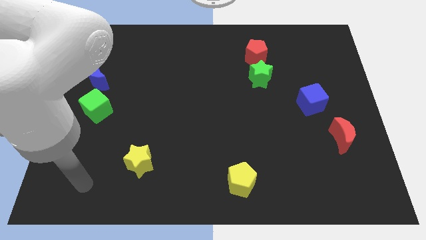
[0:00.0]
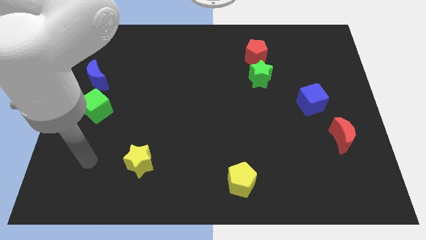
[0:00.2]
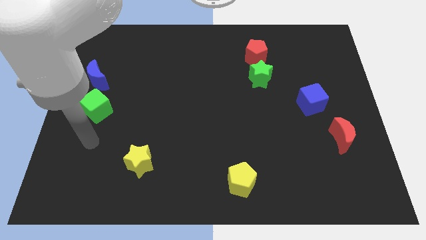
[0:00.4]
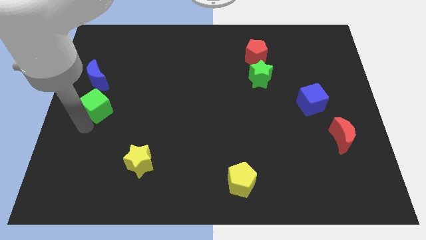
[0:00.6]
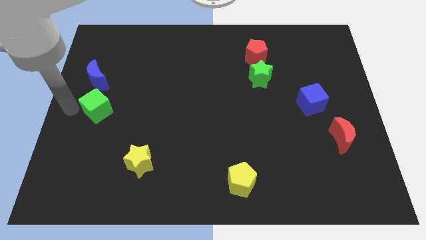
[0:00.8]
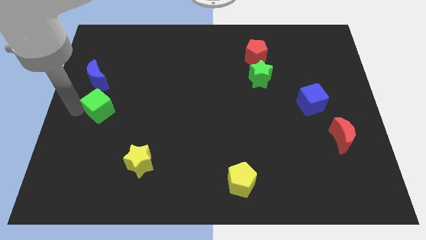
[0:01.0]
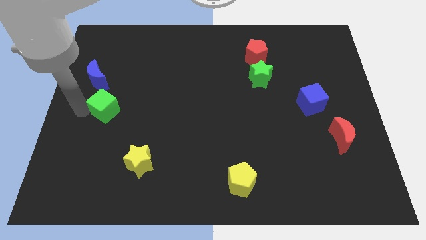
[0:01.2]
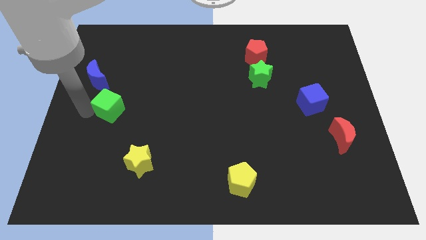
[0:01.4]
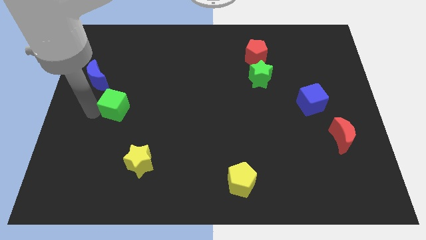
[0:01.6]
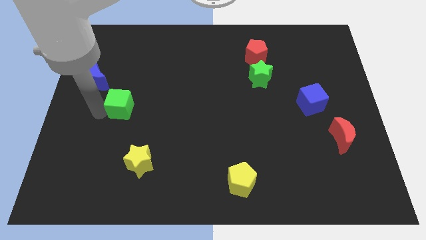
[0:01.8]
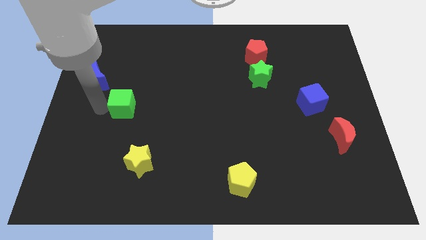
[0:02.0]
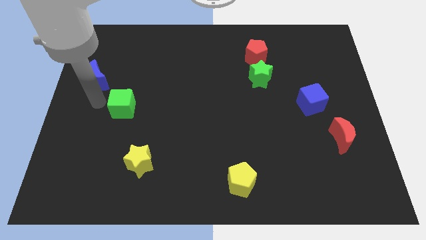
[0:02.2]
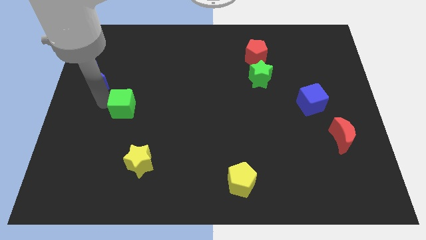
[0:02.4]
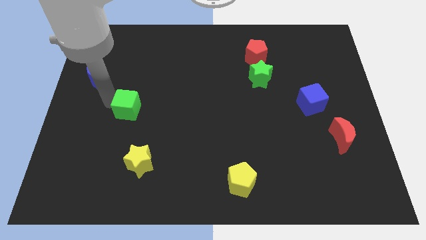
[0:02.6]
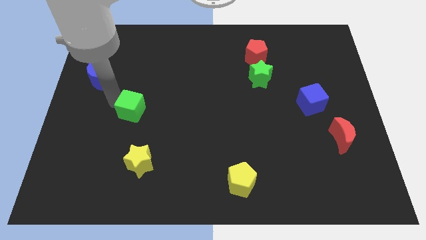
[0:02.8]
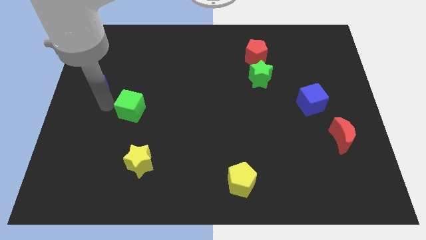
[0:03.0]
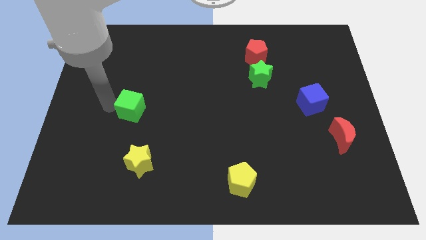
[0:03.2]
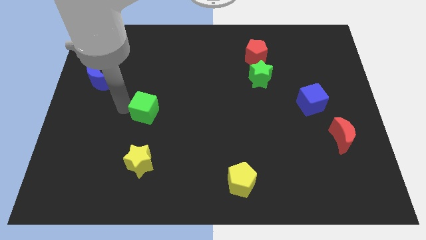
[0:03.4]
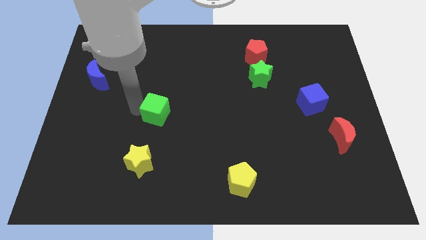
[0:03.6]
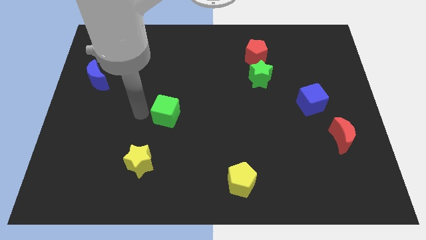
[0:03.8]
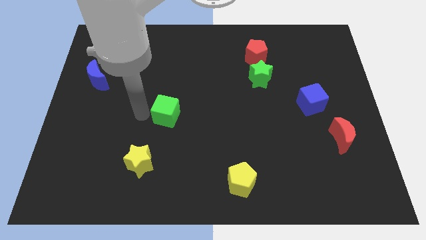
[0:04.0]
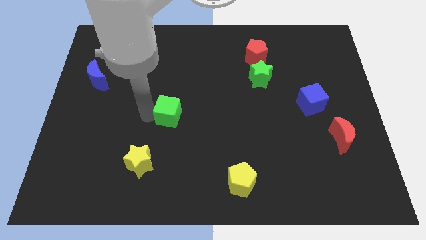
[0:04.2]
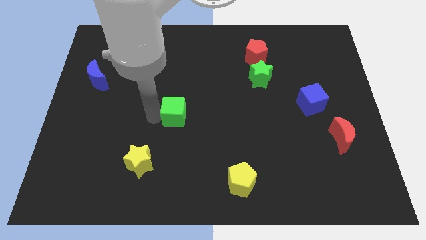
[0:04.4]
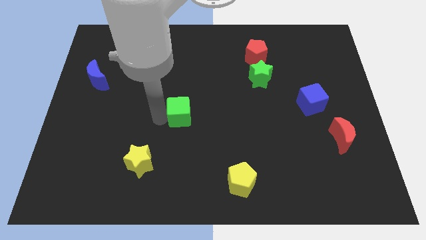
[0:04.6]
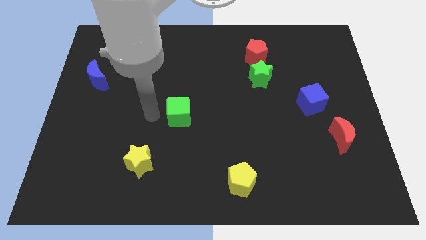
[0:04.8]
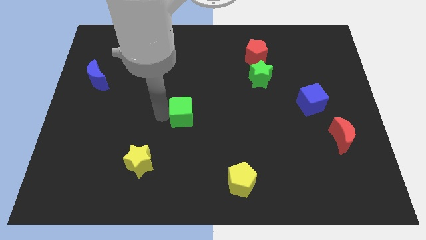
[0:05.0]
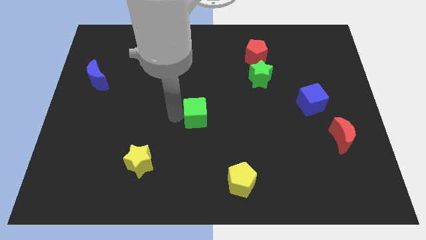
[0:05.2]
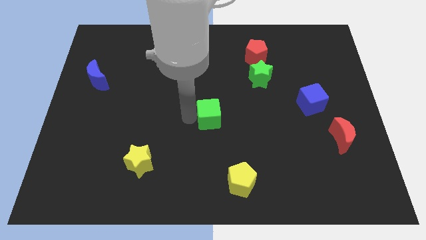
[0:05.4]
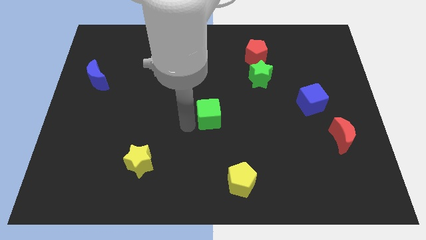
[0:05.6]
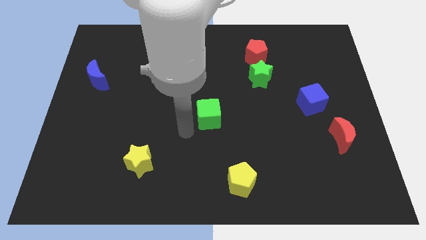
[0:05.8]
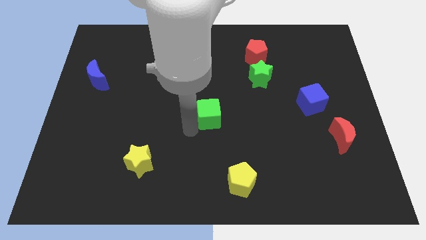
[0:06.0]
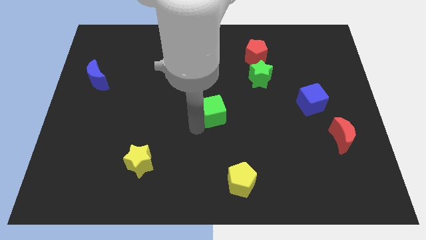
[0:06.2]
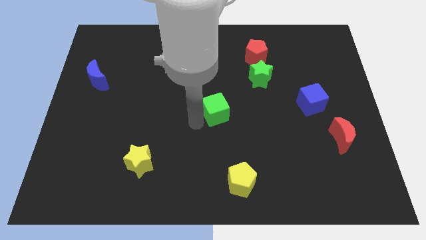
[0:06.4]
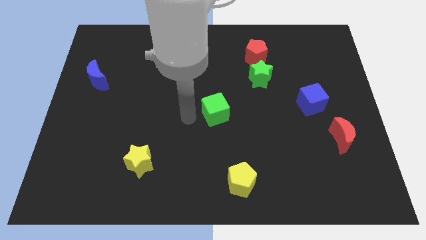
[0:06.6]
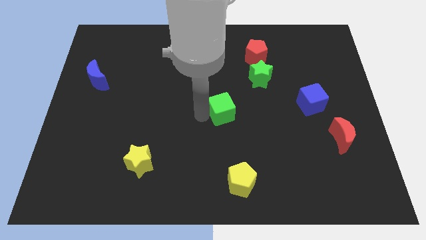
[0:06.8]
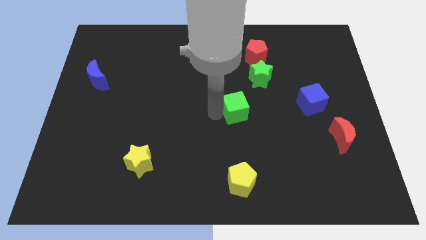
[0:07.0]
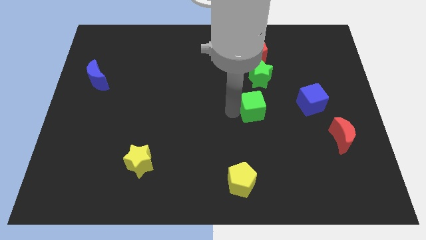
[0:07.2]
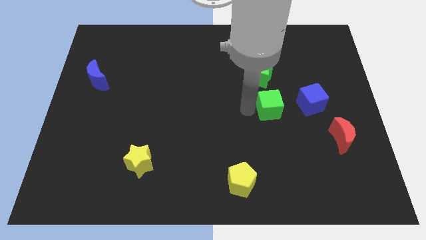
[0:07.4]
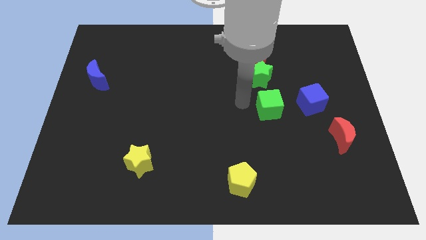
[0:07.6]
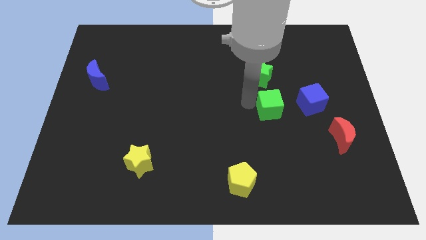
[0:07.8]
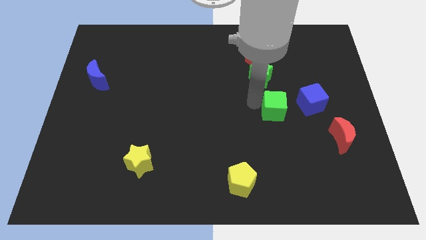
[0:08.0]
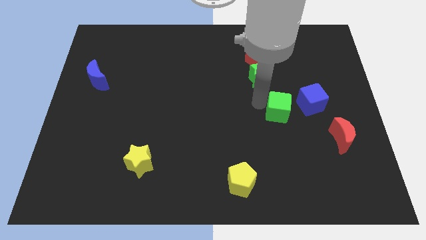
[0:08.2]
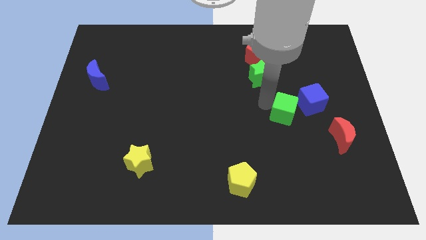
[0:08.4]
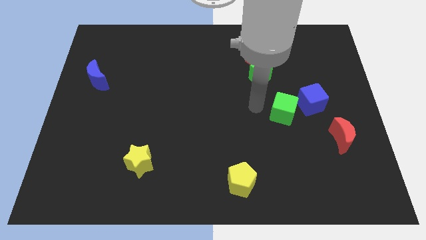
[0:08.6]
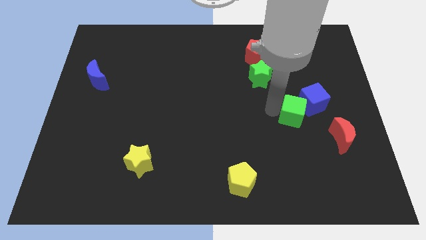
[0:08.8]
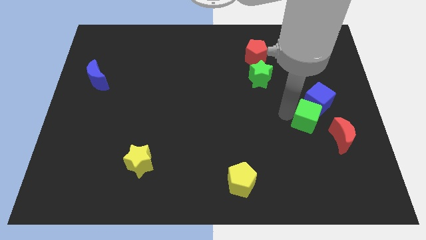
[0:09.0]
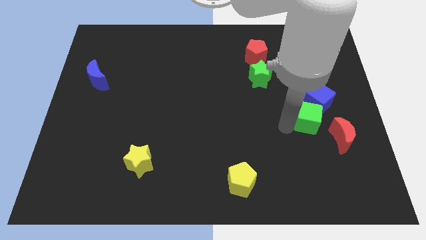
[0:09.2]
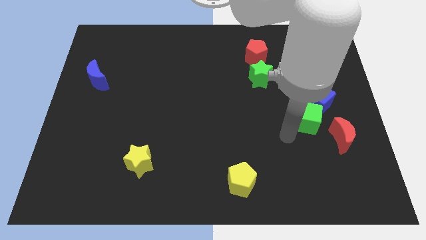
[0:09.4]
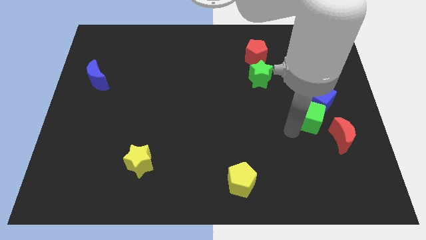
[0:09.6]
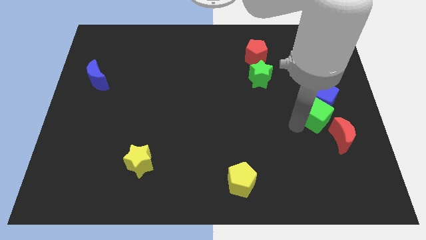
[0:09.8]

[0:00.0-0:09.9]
put the green cube to the top side of the red moon

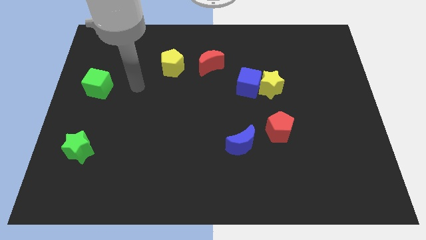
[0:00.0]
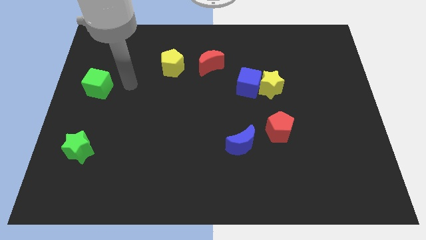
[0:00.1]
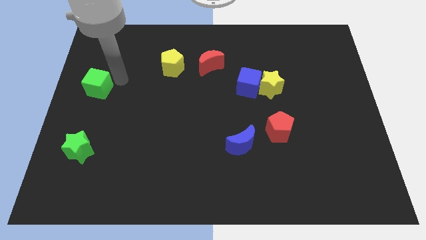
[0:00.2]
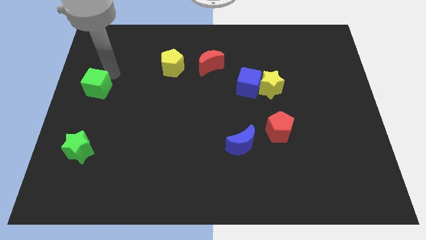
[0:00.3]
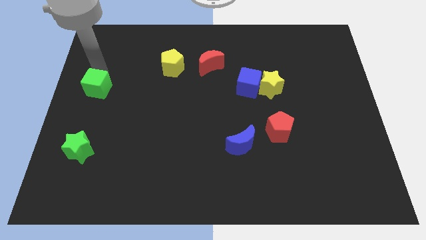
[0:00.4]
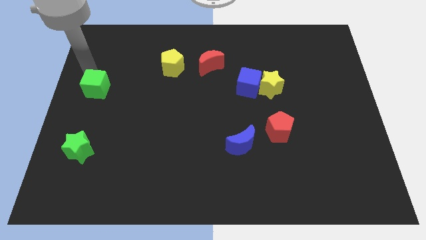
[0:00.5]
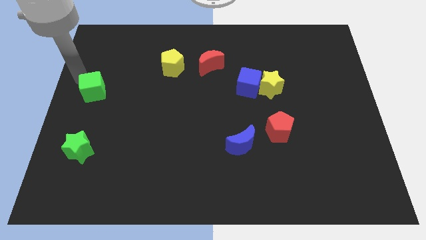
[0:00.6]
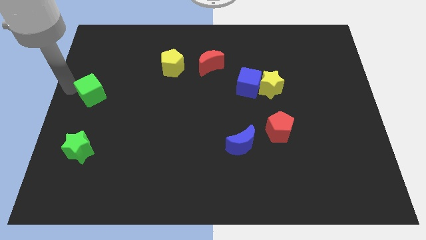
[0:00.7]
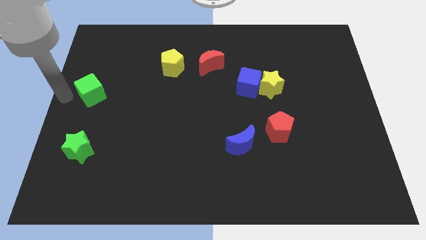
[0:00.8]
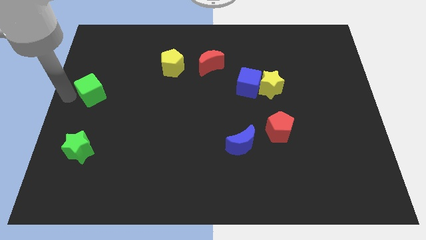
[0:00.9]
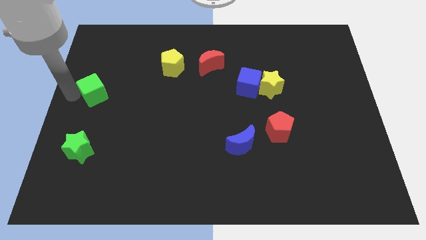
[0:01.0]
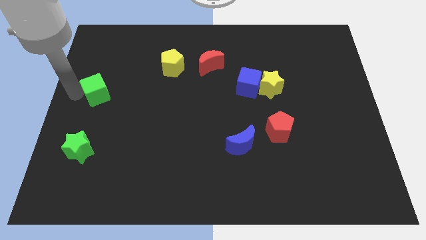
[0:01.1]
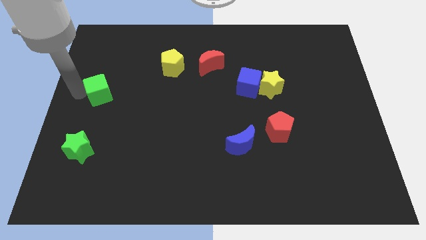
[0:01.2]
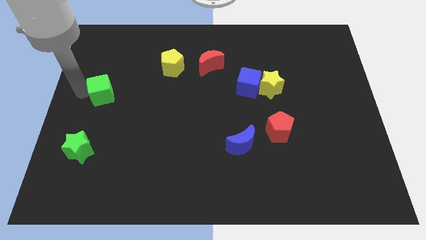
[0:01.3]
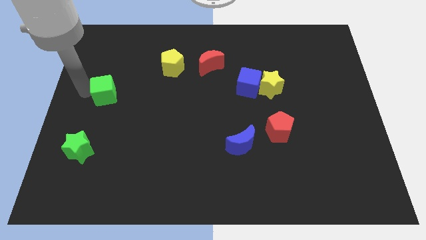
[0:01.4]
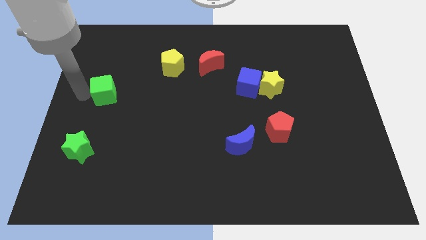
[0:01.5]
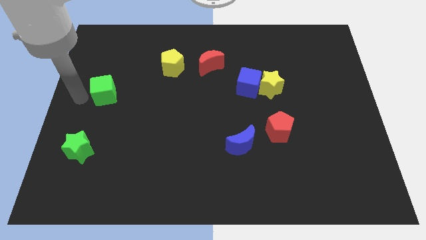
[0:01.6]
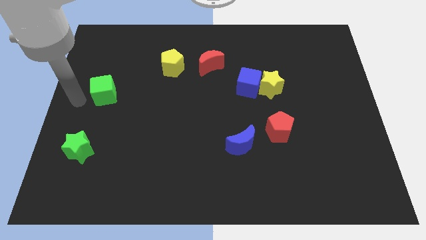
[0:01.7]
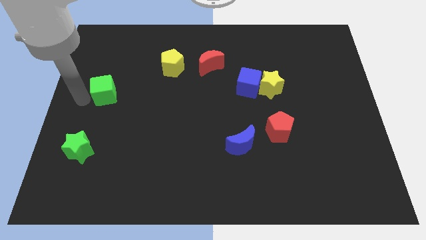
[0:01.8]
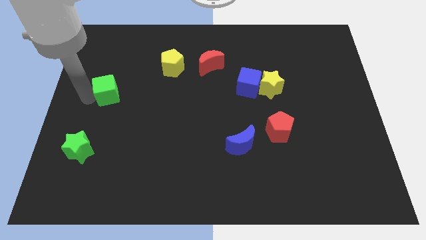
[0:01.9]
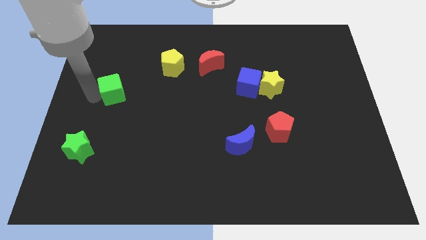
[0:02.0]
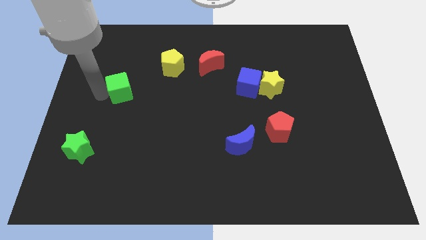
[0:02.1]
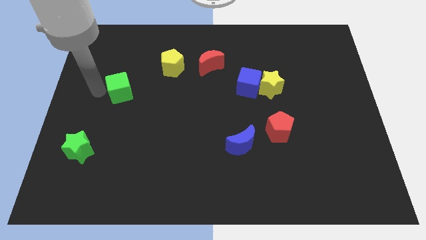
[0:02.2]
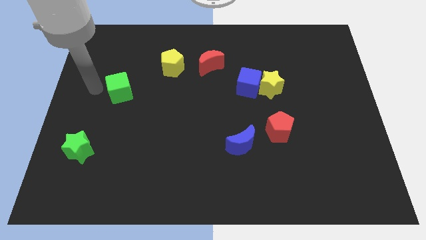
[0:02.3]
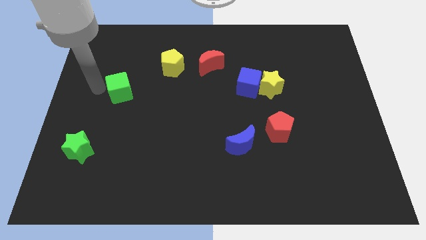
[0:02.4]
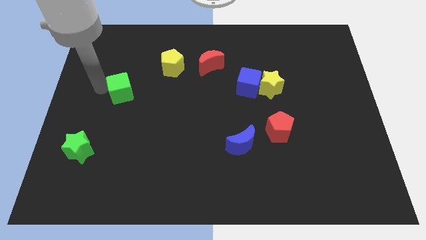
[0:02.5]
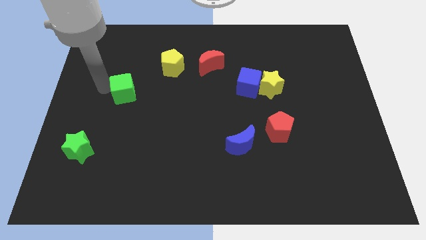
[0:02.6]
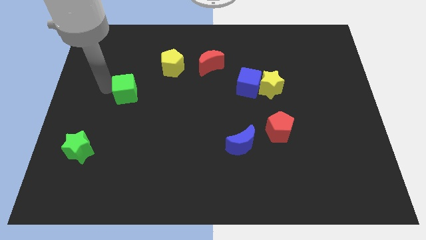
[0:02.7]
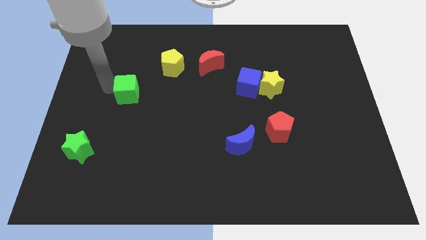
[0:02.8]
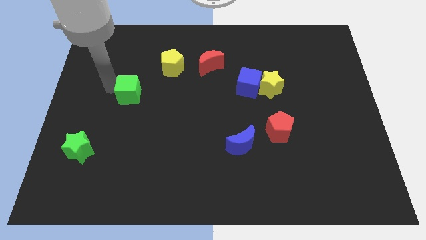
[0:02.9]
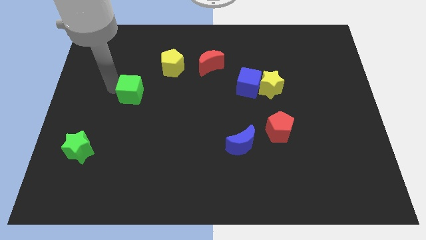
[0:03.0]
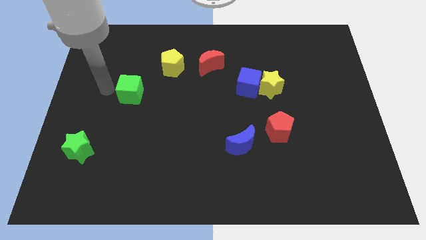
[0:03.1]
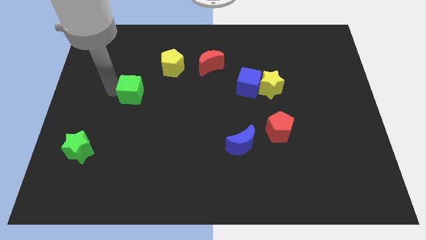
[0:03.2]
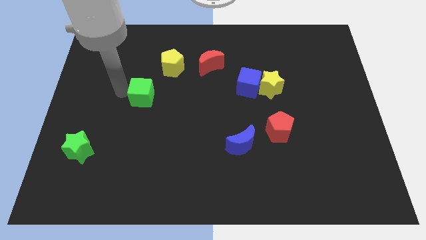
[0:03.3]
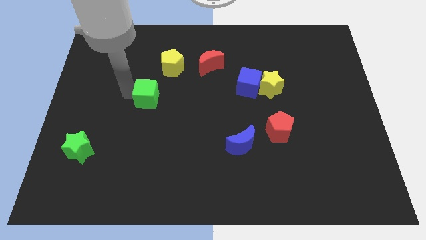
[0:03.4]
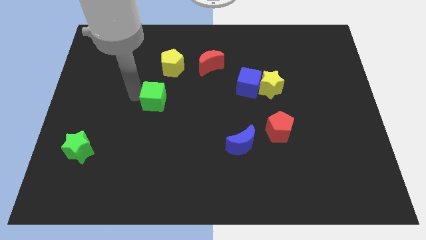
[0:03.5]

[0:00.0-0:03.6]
push the green cube to the bottom of the yellow pentagon
